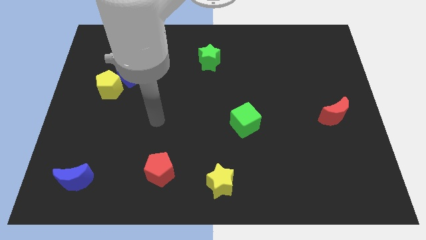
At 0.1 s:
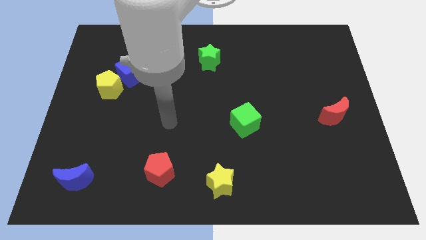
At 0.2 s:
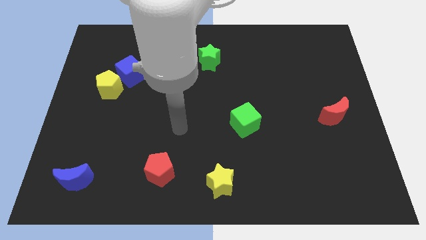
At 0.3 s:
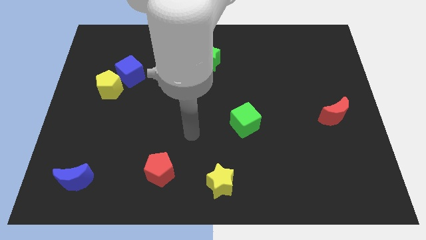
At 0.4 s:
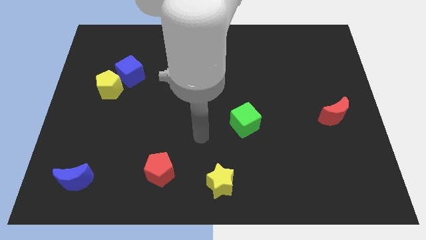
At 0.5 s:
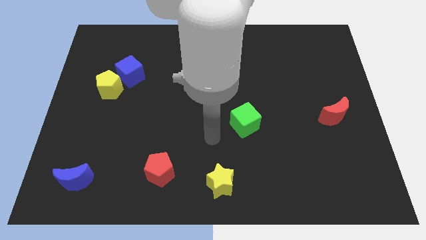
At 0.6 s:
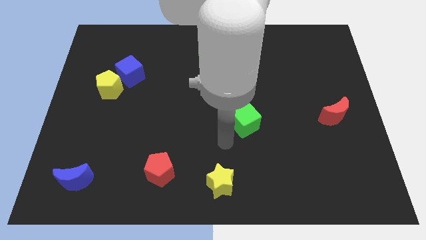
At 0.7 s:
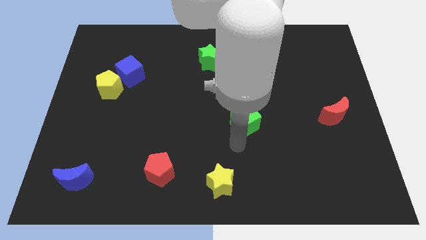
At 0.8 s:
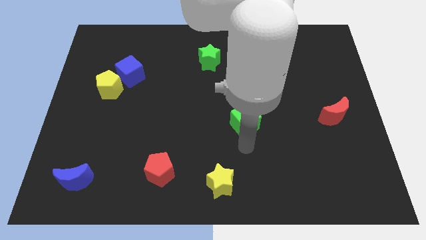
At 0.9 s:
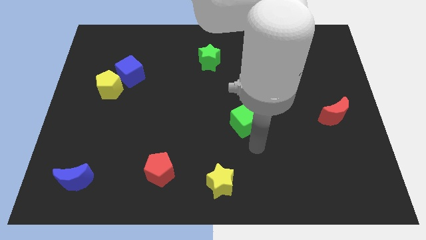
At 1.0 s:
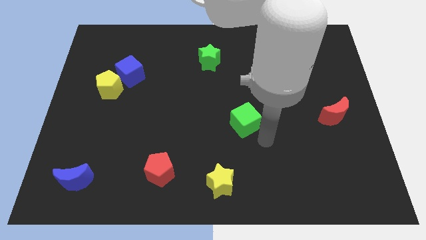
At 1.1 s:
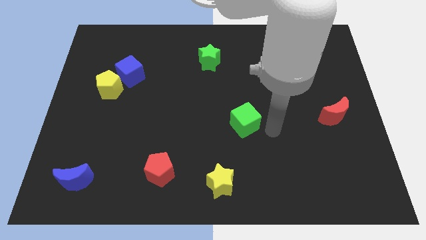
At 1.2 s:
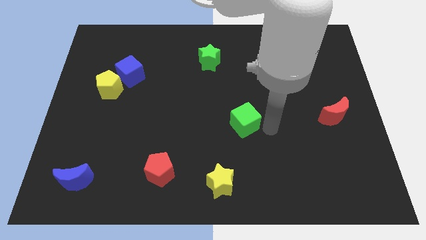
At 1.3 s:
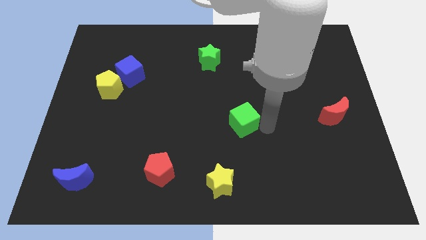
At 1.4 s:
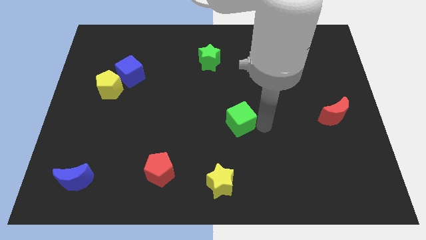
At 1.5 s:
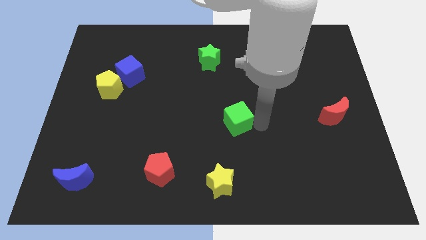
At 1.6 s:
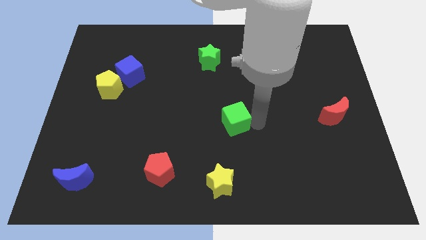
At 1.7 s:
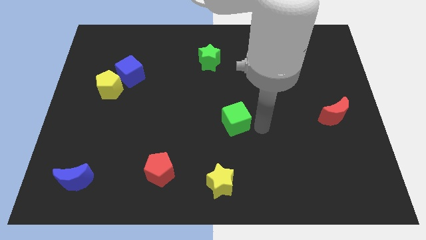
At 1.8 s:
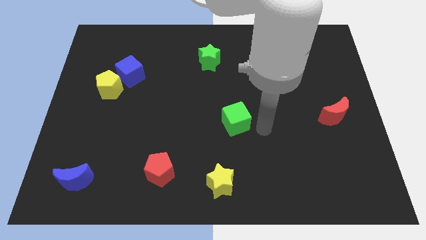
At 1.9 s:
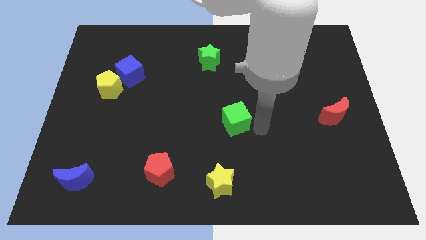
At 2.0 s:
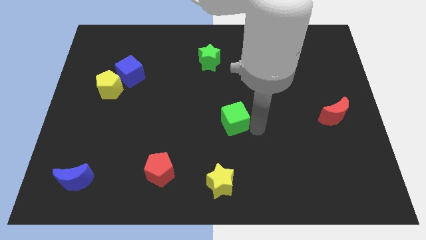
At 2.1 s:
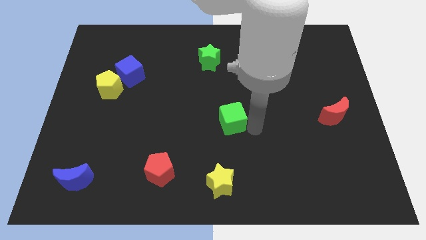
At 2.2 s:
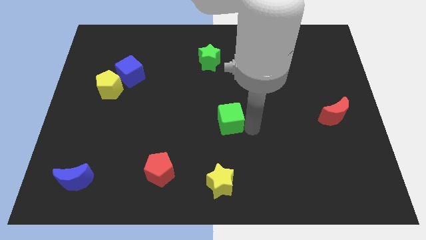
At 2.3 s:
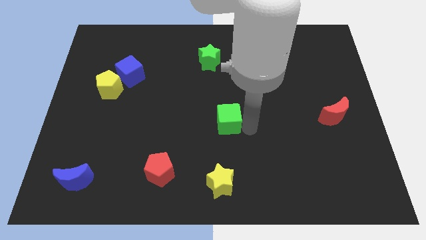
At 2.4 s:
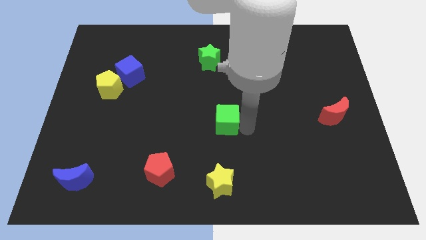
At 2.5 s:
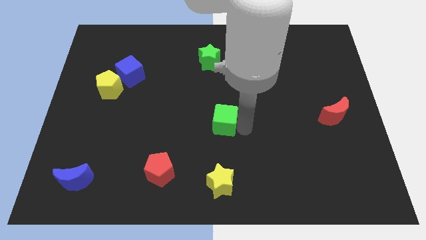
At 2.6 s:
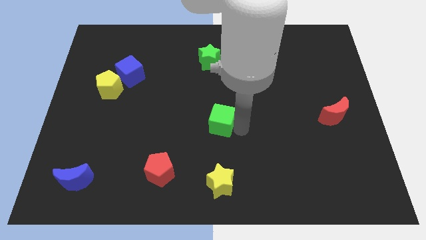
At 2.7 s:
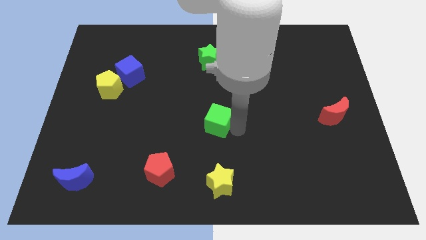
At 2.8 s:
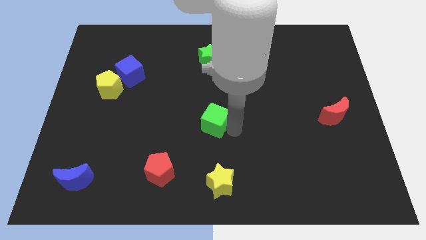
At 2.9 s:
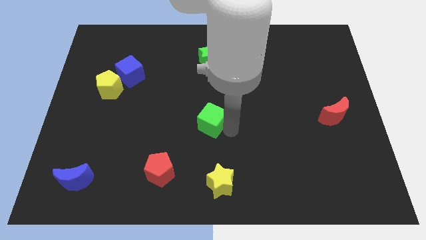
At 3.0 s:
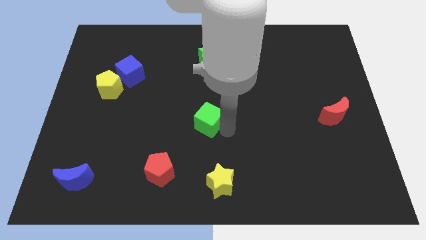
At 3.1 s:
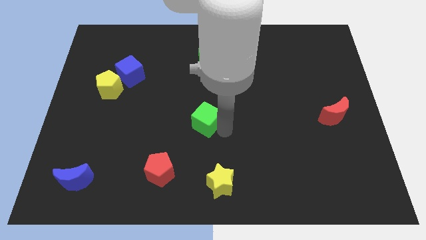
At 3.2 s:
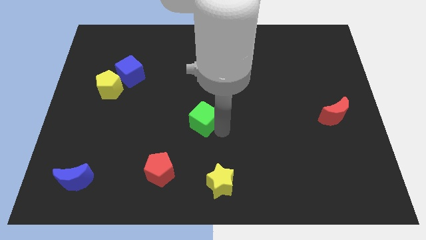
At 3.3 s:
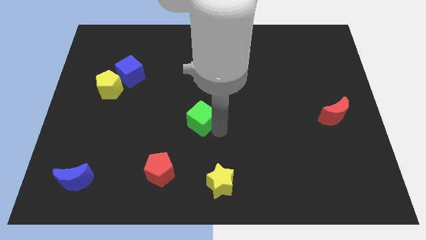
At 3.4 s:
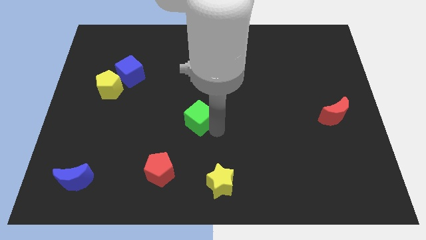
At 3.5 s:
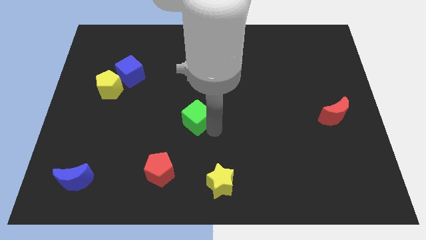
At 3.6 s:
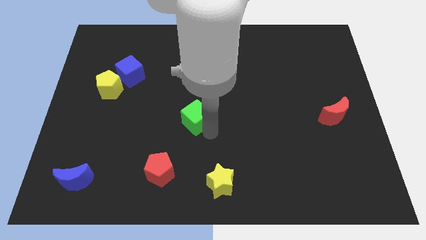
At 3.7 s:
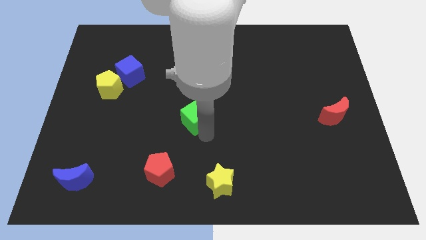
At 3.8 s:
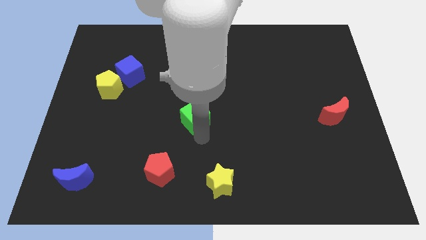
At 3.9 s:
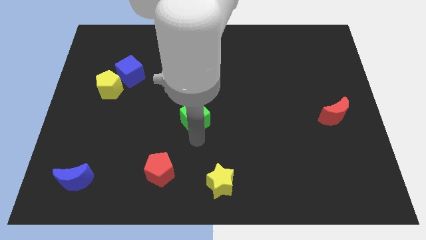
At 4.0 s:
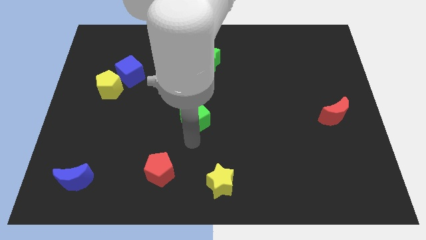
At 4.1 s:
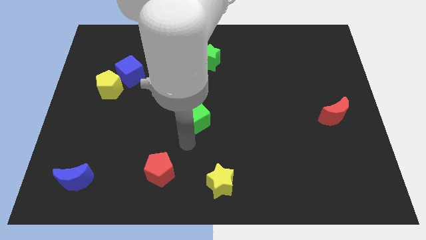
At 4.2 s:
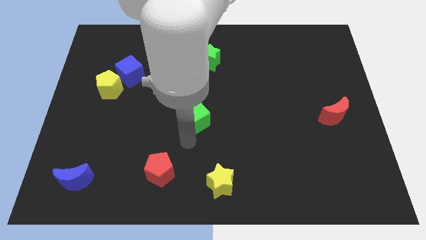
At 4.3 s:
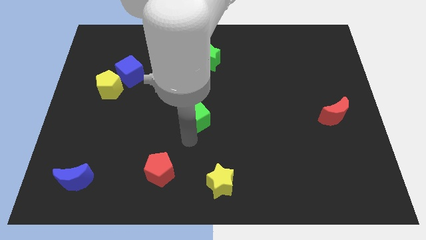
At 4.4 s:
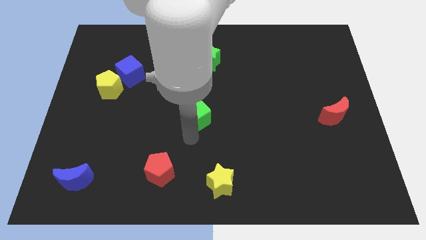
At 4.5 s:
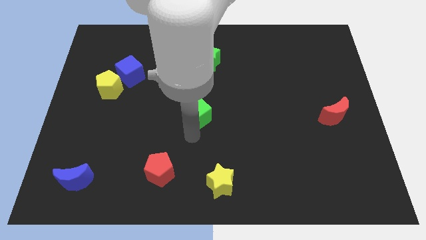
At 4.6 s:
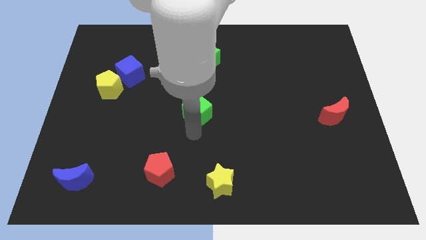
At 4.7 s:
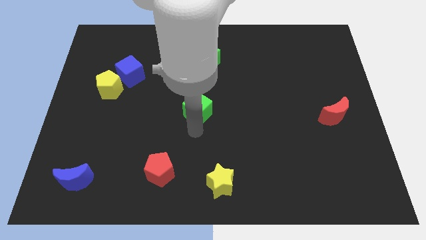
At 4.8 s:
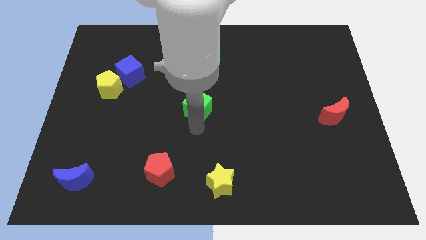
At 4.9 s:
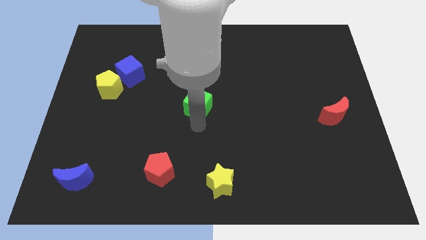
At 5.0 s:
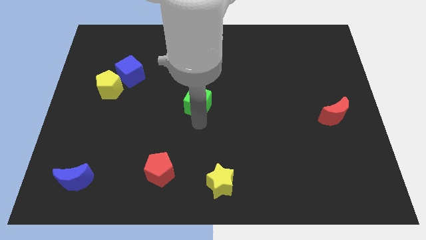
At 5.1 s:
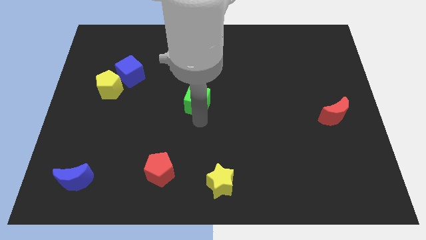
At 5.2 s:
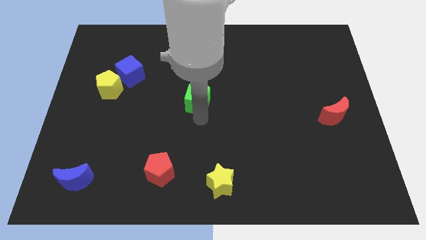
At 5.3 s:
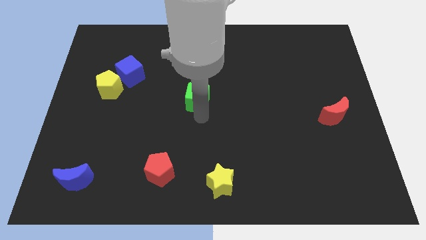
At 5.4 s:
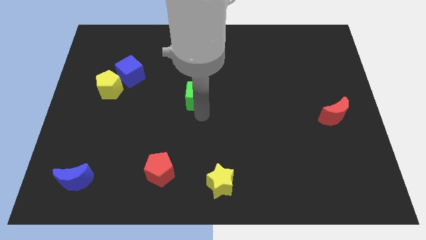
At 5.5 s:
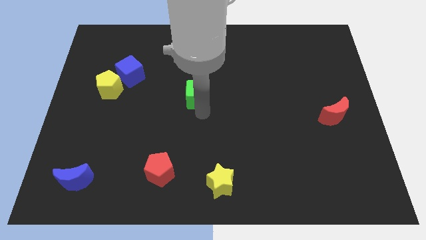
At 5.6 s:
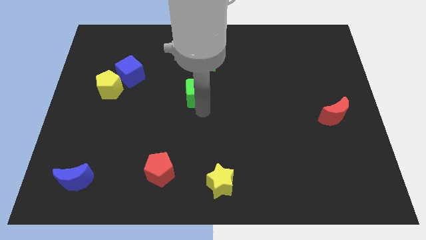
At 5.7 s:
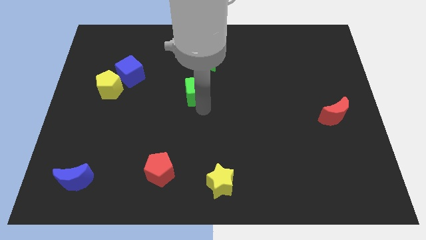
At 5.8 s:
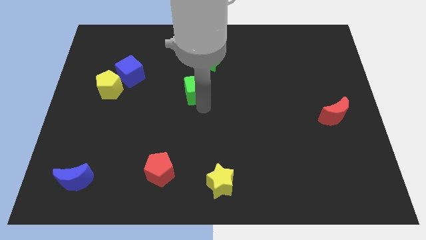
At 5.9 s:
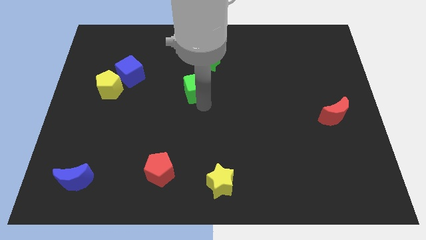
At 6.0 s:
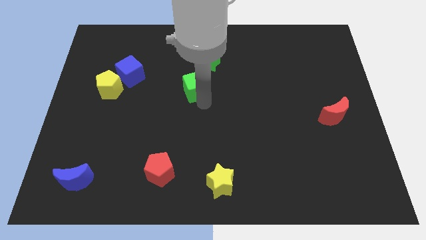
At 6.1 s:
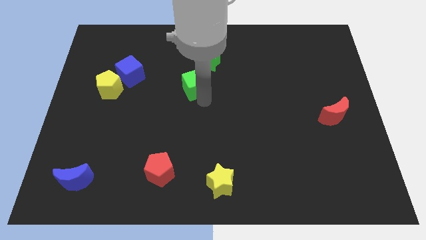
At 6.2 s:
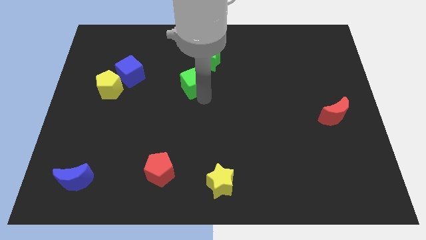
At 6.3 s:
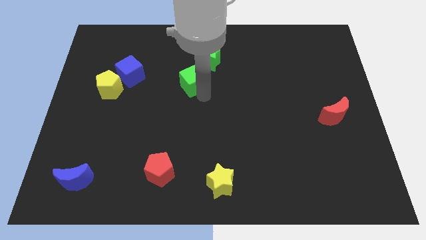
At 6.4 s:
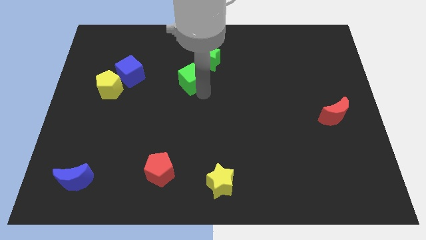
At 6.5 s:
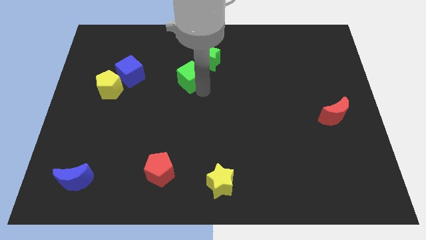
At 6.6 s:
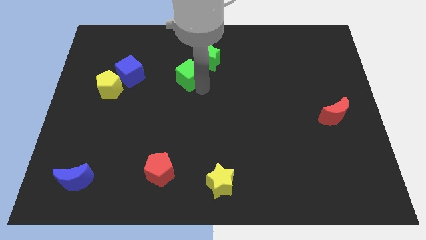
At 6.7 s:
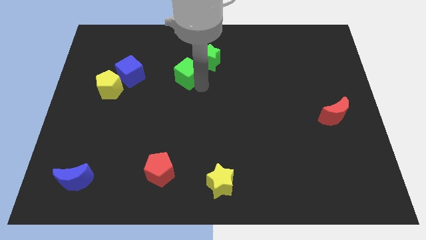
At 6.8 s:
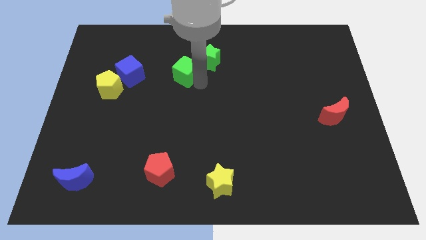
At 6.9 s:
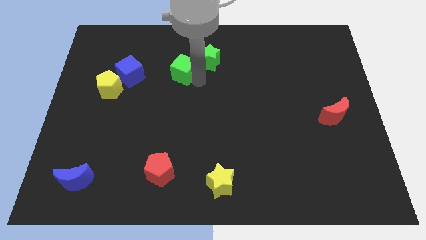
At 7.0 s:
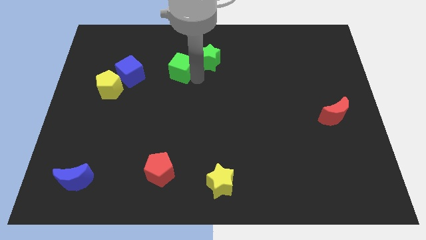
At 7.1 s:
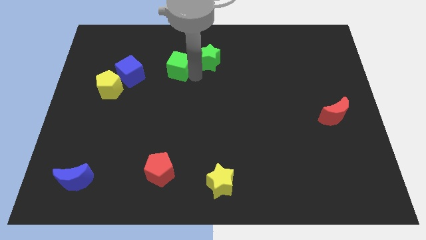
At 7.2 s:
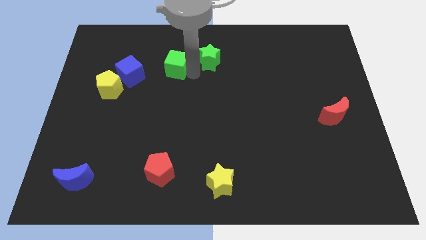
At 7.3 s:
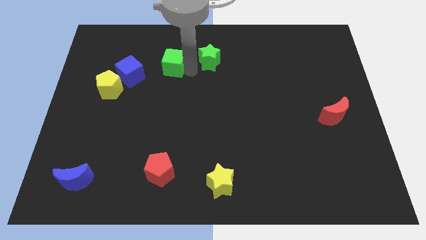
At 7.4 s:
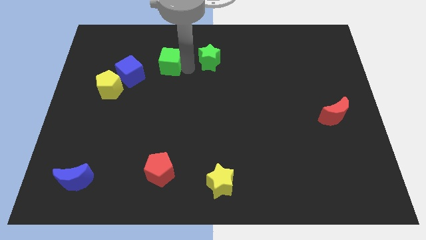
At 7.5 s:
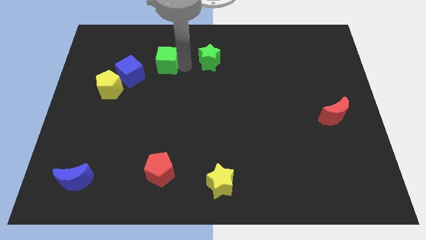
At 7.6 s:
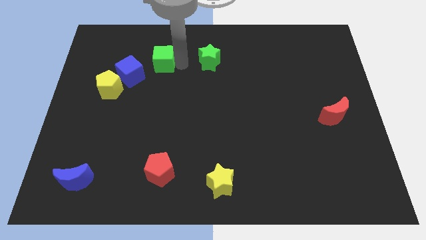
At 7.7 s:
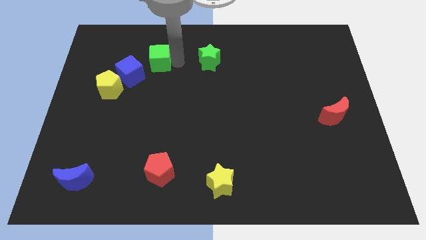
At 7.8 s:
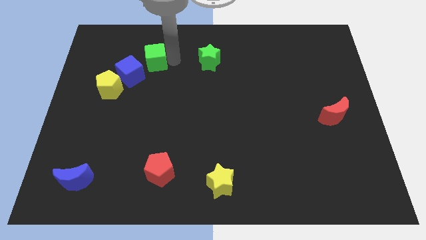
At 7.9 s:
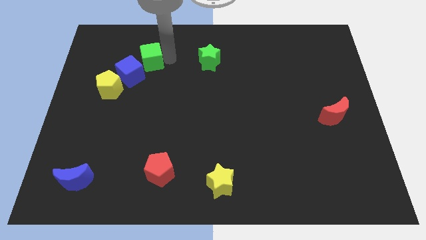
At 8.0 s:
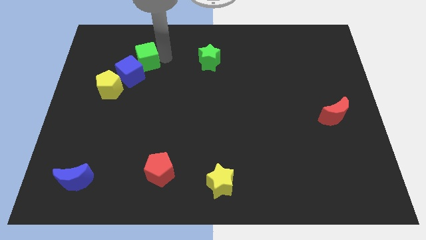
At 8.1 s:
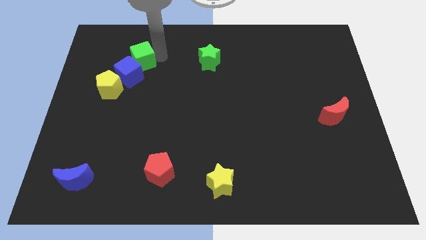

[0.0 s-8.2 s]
move the green cube close to the blue cube

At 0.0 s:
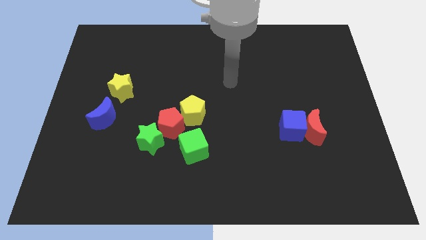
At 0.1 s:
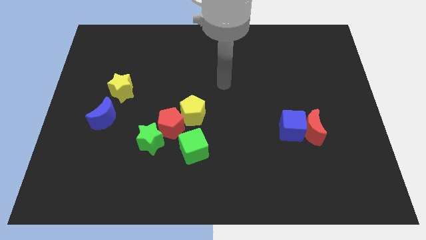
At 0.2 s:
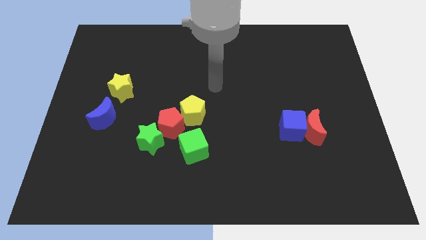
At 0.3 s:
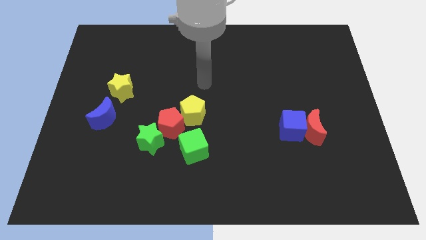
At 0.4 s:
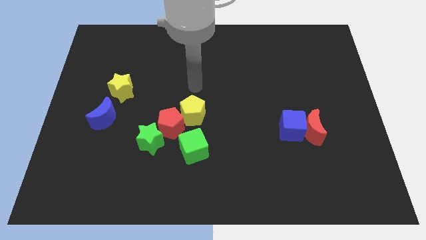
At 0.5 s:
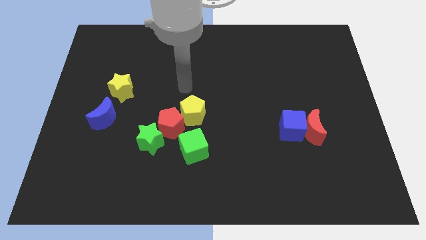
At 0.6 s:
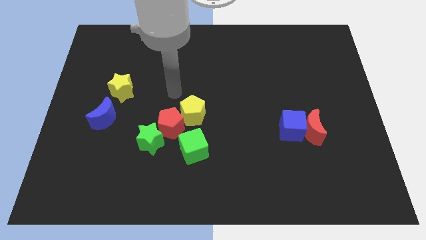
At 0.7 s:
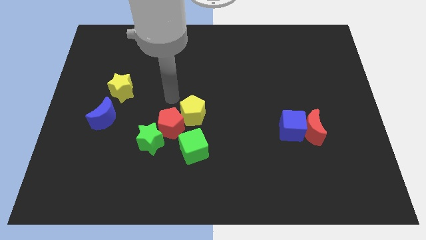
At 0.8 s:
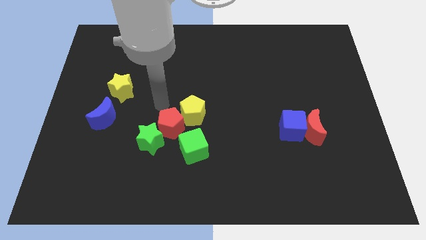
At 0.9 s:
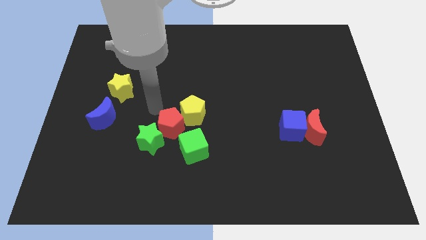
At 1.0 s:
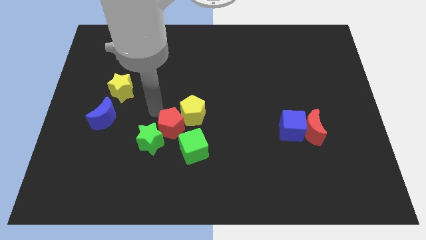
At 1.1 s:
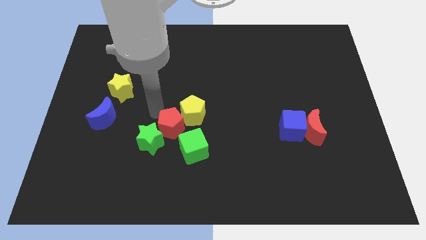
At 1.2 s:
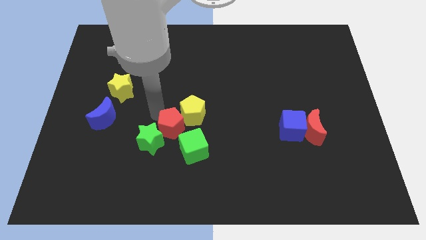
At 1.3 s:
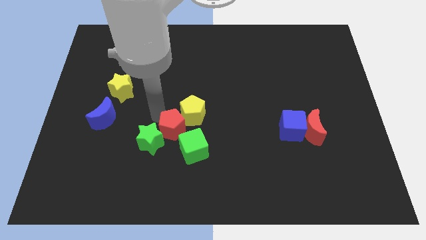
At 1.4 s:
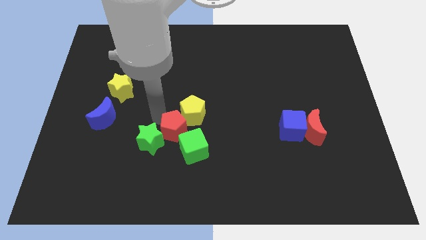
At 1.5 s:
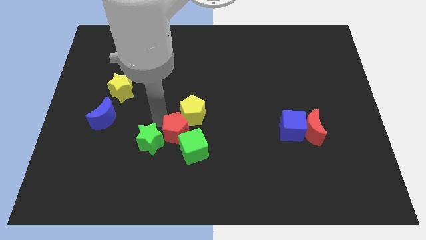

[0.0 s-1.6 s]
push the red pentagon close to the green cube
